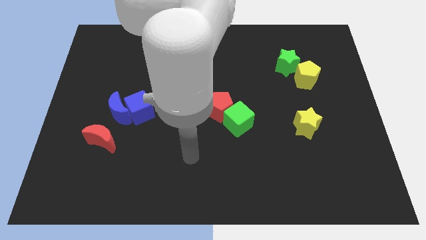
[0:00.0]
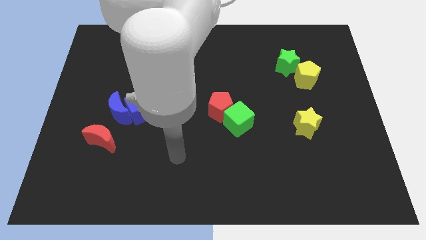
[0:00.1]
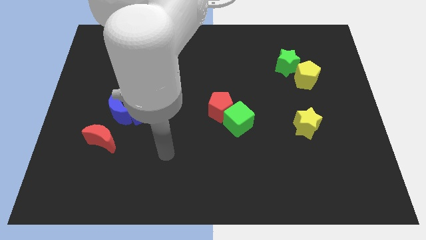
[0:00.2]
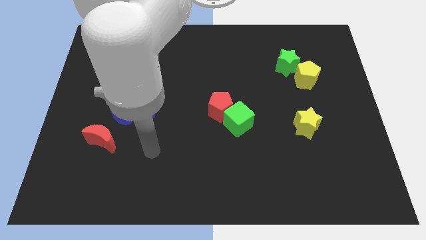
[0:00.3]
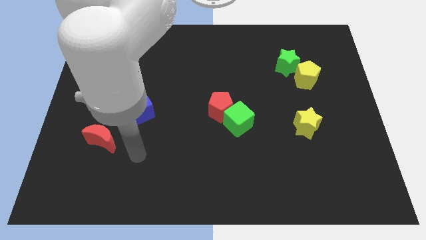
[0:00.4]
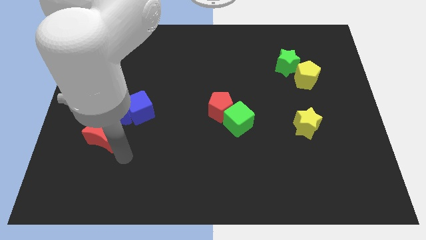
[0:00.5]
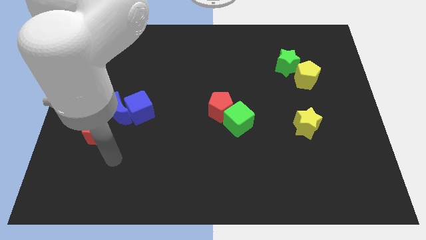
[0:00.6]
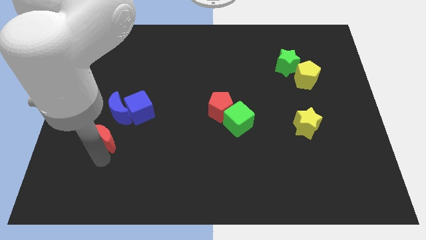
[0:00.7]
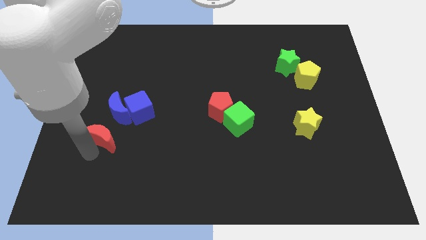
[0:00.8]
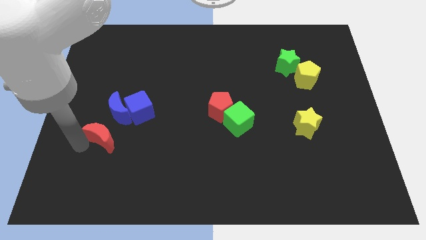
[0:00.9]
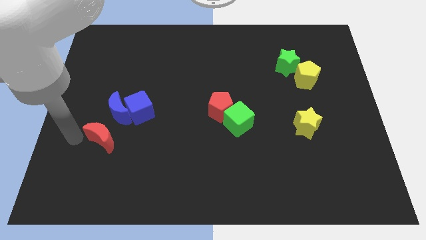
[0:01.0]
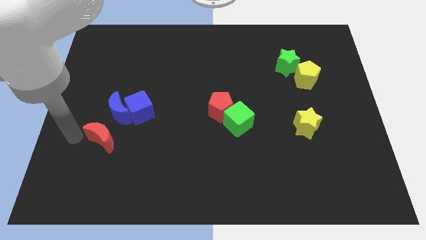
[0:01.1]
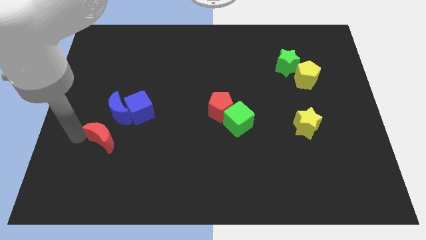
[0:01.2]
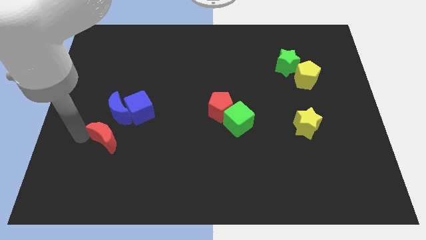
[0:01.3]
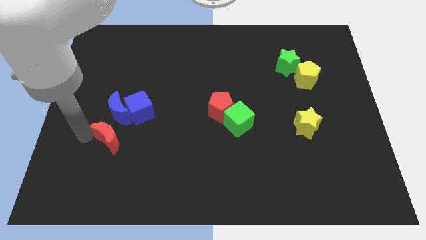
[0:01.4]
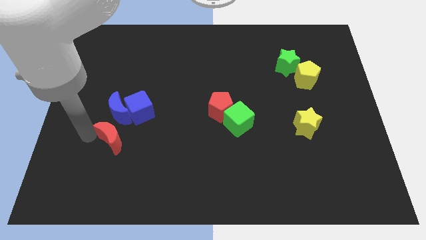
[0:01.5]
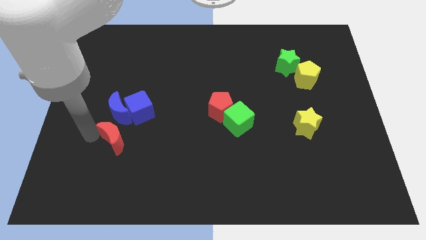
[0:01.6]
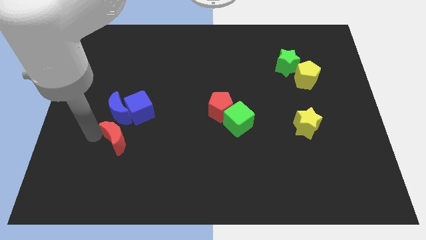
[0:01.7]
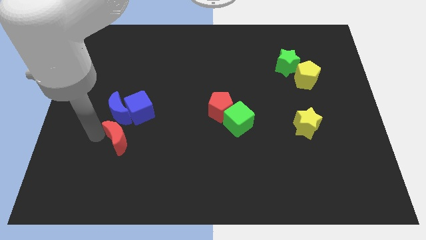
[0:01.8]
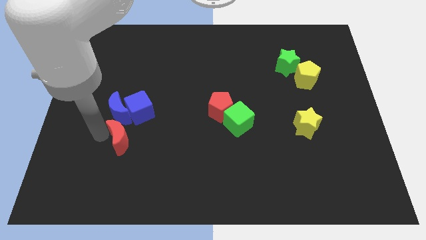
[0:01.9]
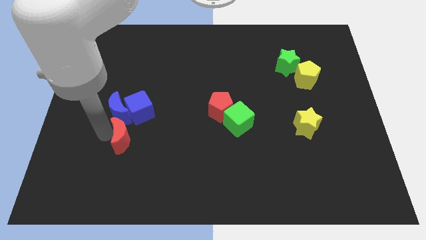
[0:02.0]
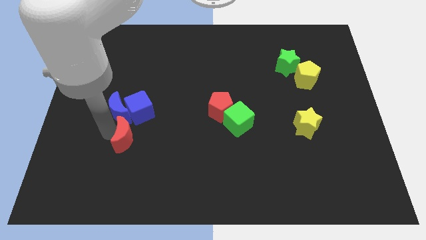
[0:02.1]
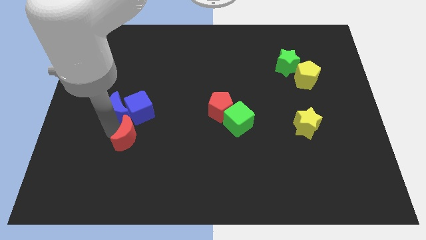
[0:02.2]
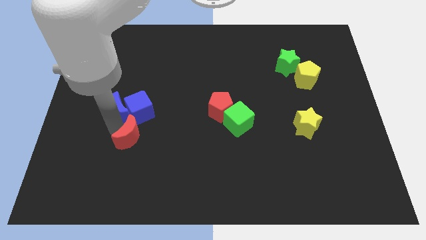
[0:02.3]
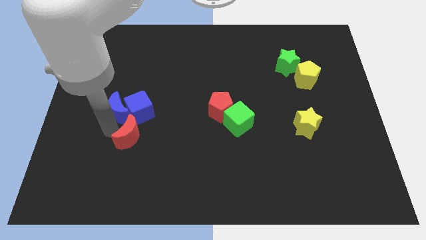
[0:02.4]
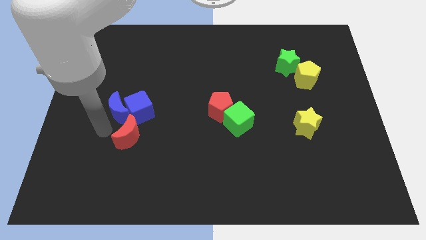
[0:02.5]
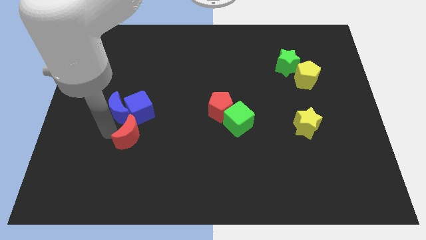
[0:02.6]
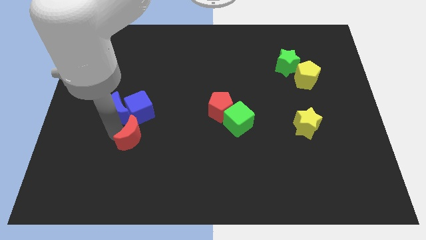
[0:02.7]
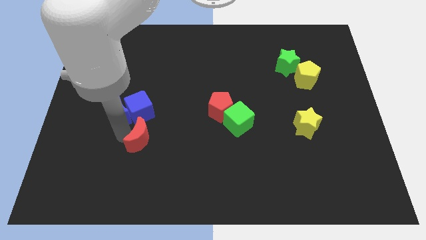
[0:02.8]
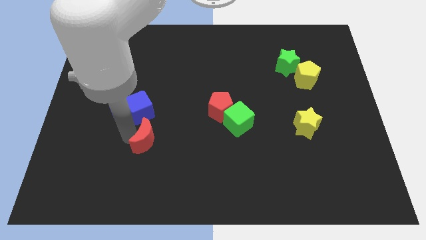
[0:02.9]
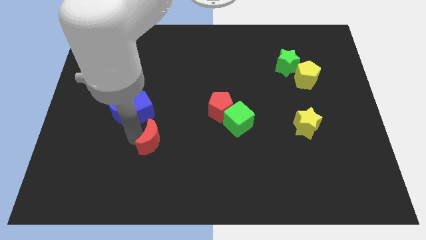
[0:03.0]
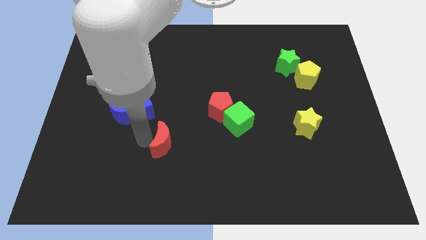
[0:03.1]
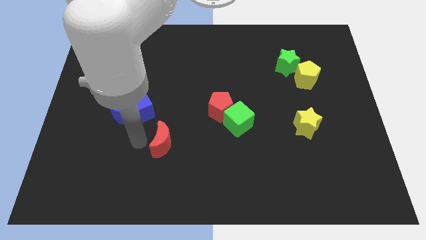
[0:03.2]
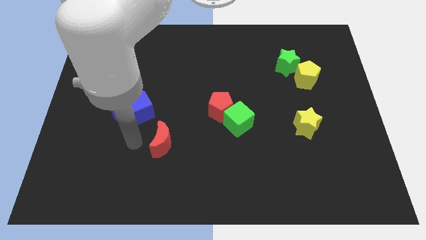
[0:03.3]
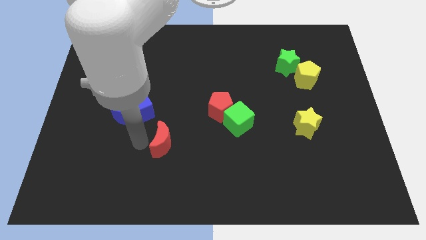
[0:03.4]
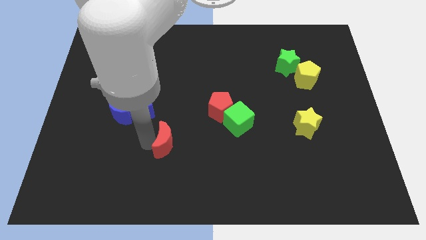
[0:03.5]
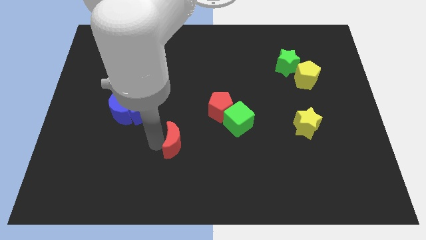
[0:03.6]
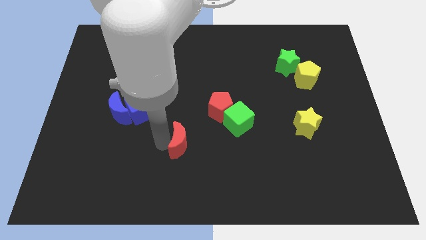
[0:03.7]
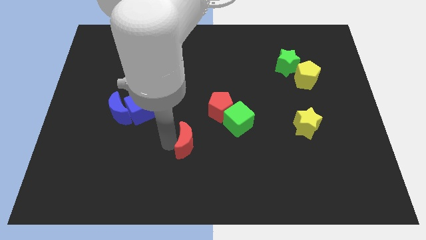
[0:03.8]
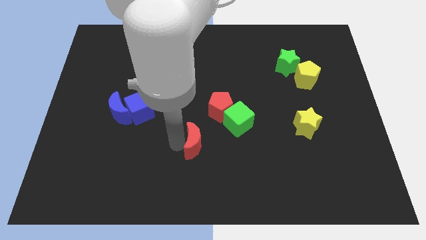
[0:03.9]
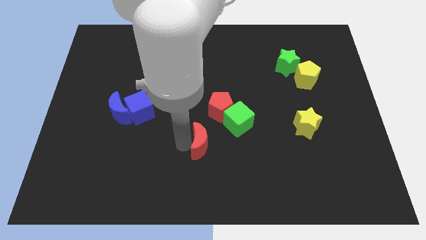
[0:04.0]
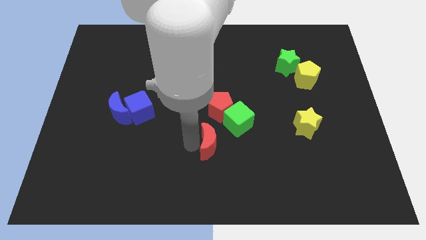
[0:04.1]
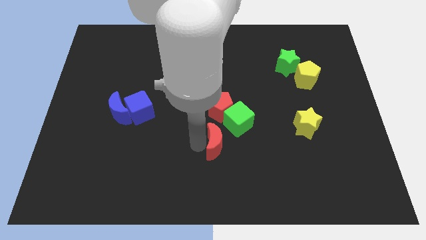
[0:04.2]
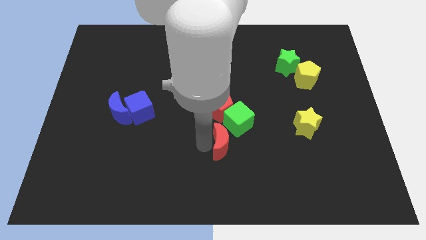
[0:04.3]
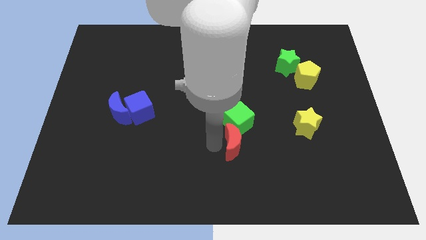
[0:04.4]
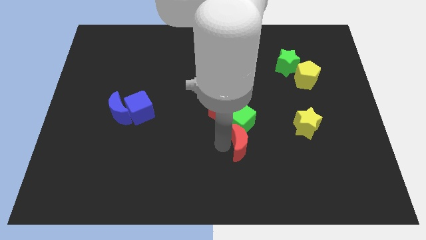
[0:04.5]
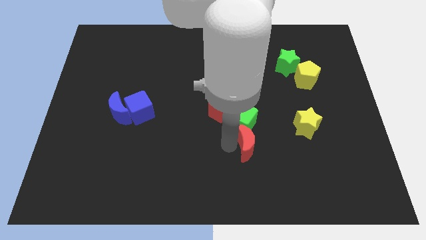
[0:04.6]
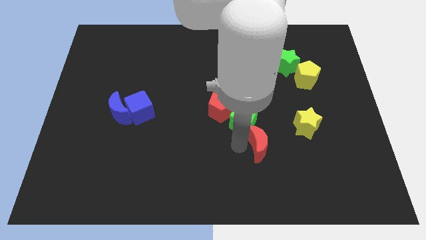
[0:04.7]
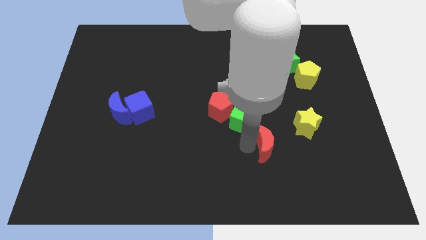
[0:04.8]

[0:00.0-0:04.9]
slide the red moon to the bottom left of the yellow star

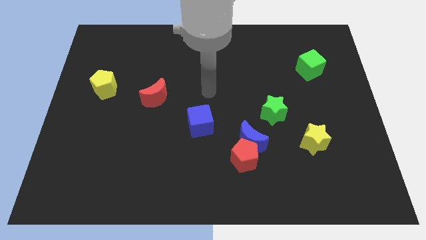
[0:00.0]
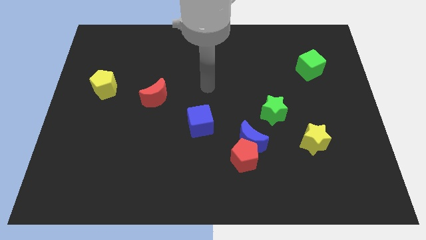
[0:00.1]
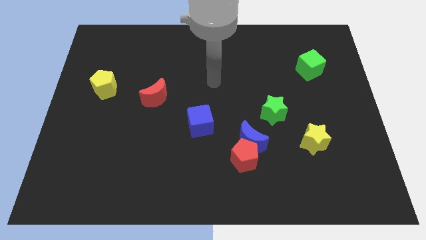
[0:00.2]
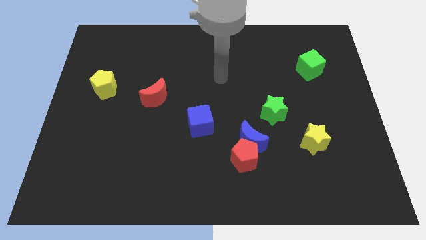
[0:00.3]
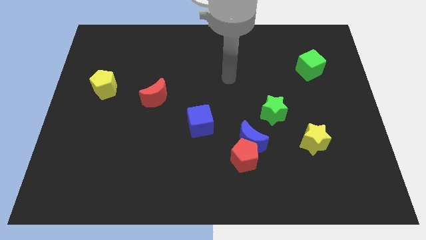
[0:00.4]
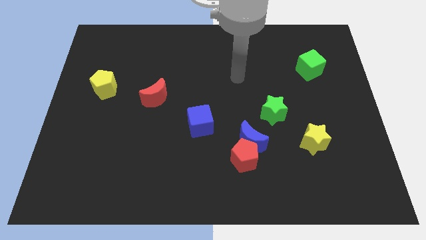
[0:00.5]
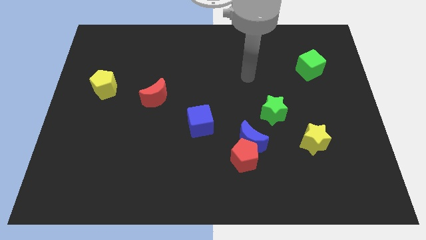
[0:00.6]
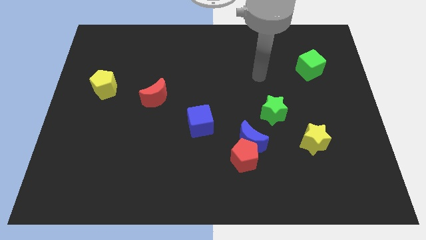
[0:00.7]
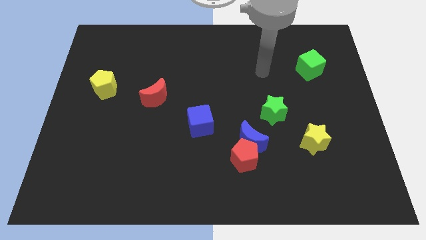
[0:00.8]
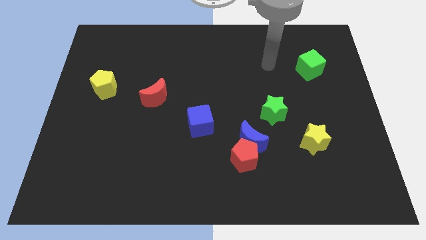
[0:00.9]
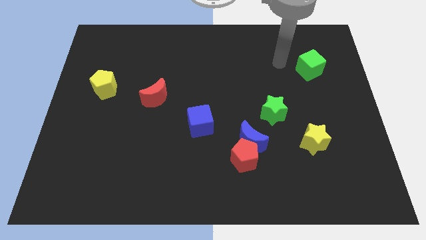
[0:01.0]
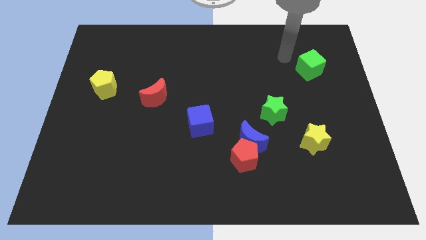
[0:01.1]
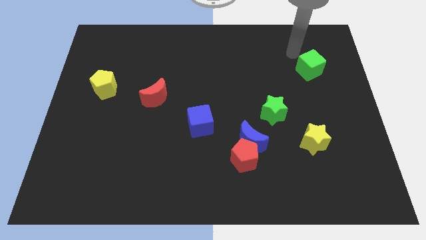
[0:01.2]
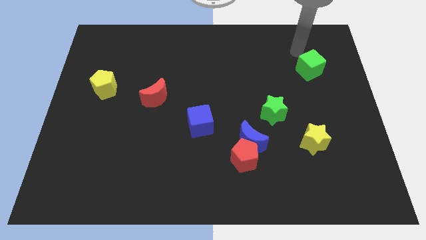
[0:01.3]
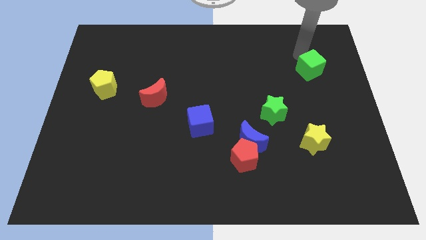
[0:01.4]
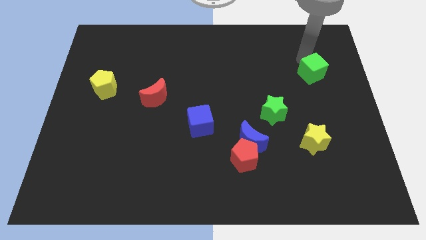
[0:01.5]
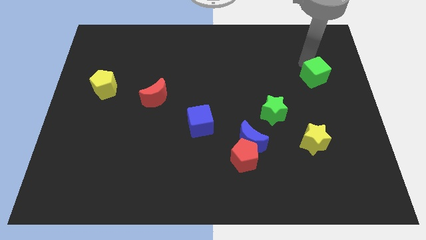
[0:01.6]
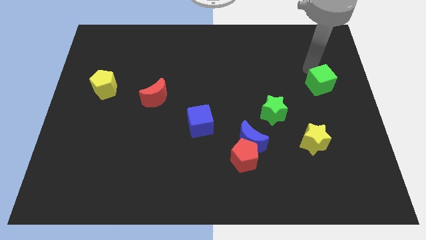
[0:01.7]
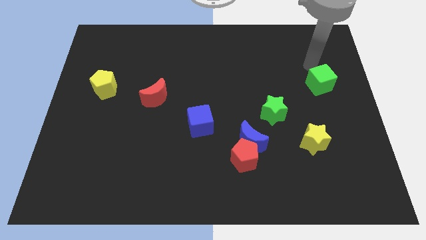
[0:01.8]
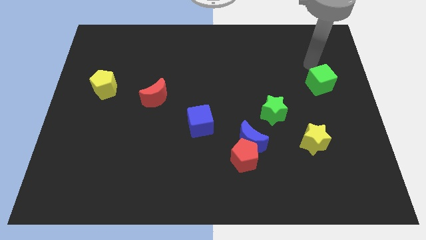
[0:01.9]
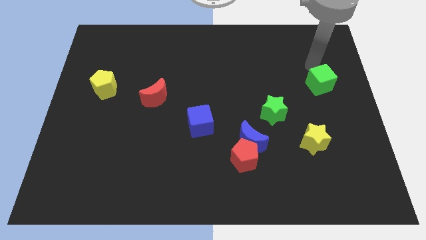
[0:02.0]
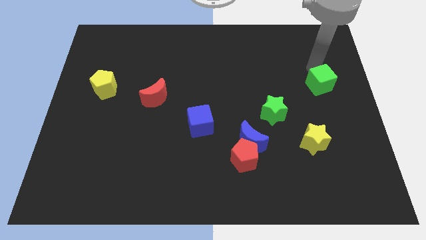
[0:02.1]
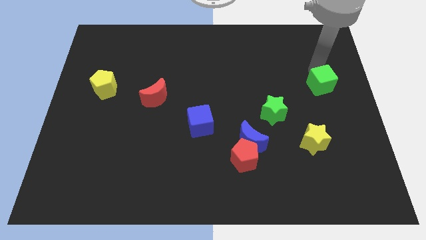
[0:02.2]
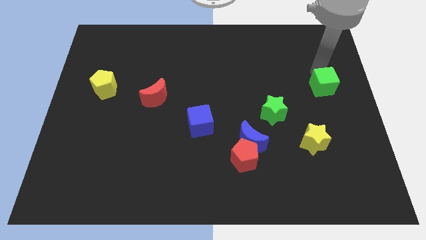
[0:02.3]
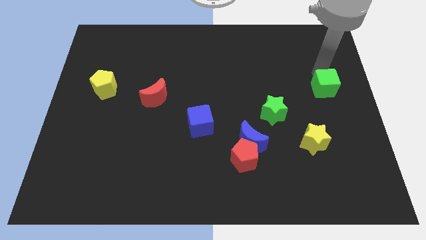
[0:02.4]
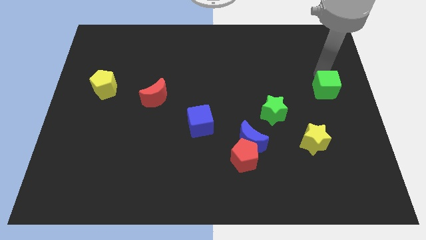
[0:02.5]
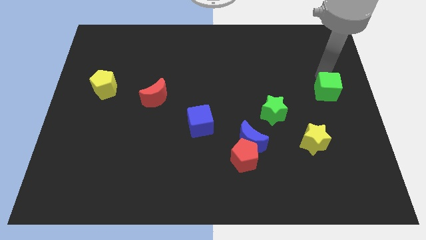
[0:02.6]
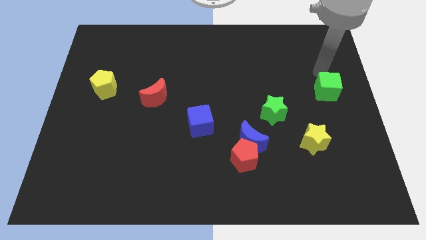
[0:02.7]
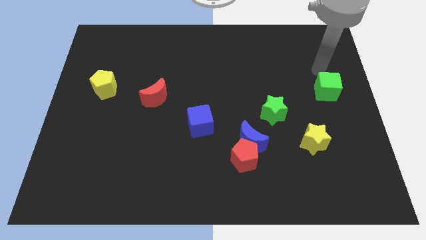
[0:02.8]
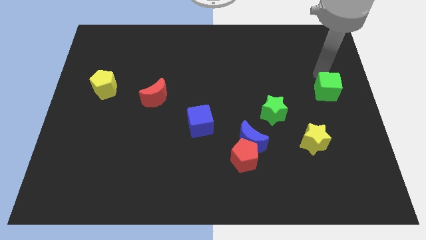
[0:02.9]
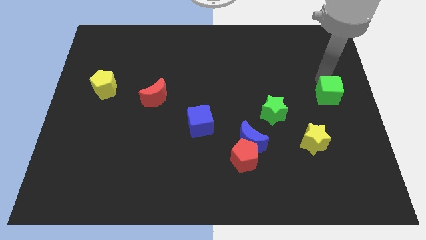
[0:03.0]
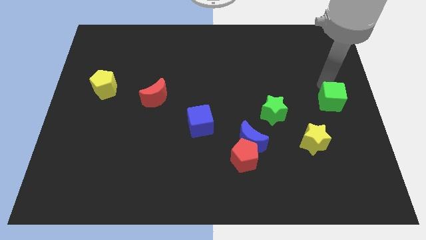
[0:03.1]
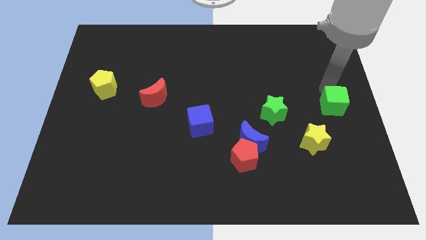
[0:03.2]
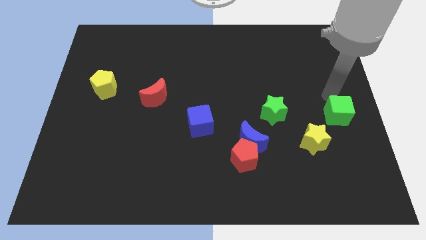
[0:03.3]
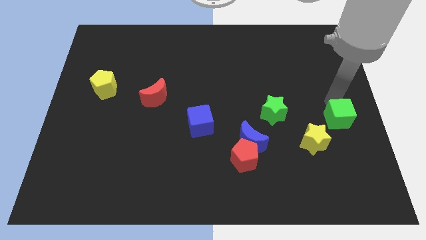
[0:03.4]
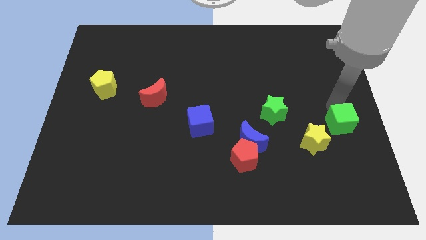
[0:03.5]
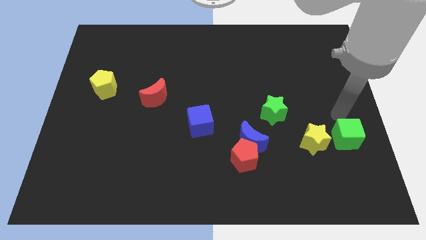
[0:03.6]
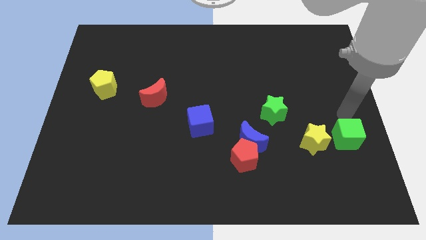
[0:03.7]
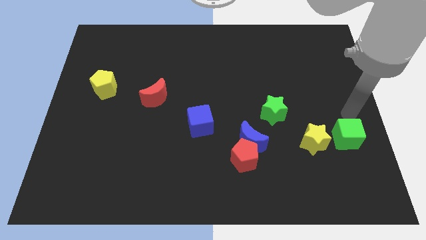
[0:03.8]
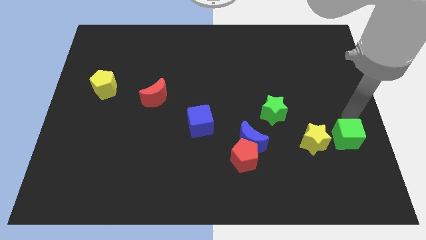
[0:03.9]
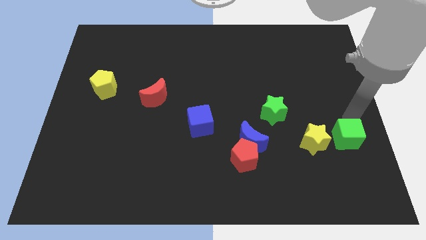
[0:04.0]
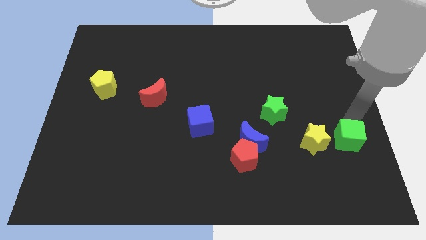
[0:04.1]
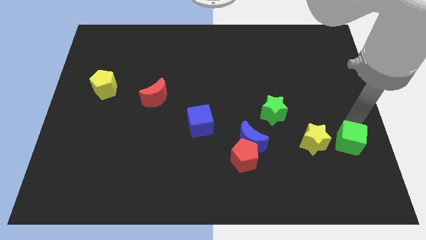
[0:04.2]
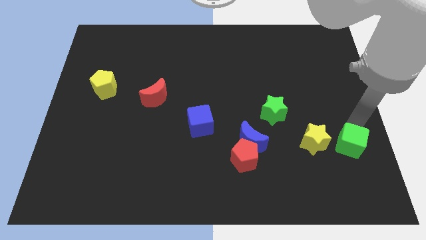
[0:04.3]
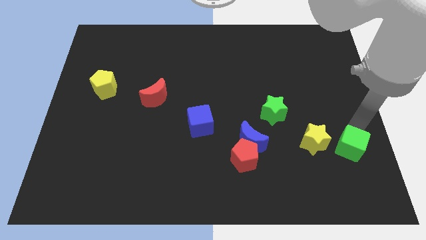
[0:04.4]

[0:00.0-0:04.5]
slide the green cube diagonally down and to the right of the yellow star
